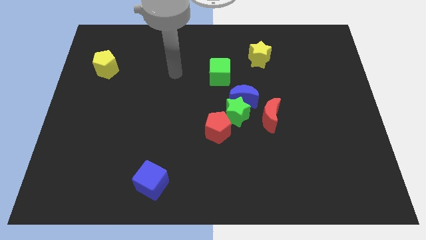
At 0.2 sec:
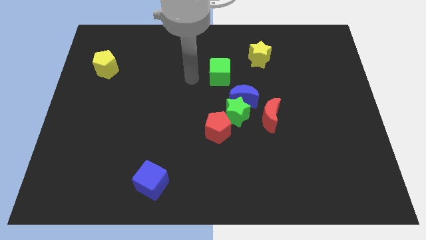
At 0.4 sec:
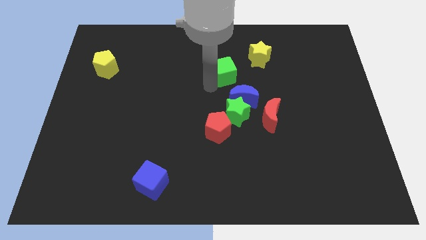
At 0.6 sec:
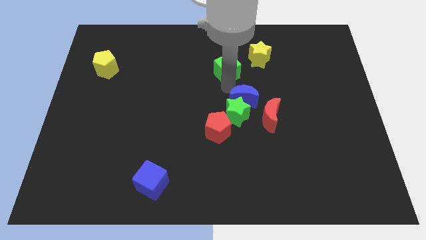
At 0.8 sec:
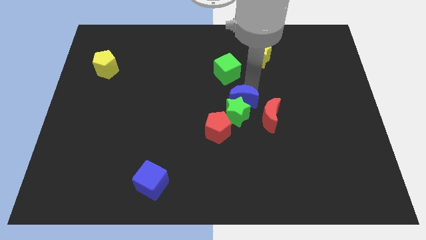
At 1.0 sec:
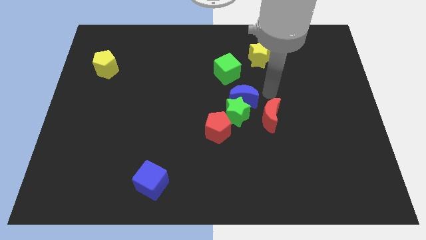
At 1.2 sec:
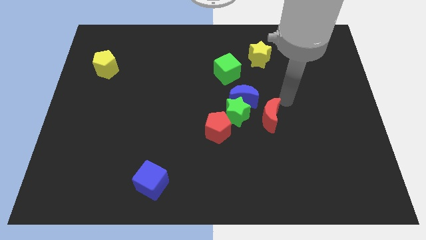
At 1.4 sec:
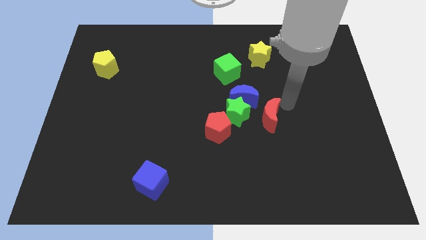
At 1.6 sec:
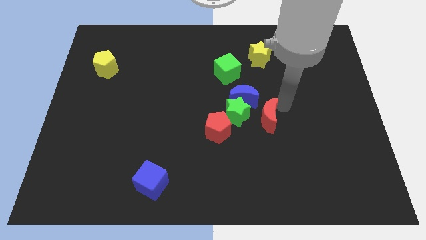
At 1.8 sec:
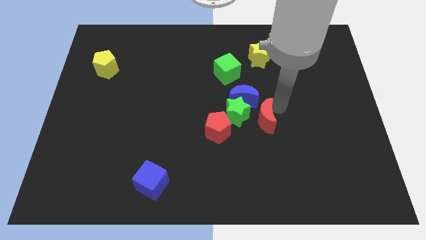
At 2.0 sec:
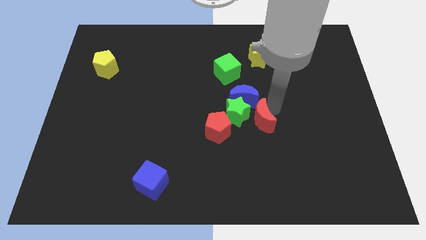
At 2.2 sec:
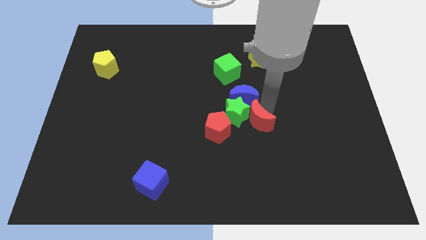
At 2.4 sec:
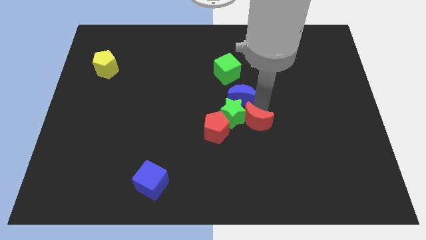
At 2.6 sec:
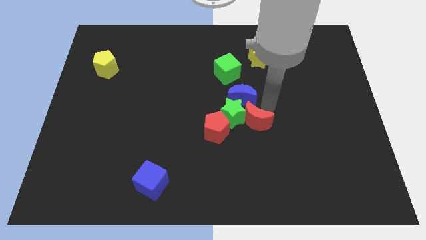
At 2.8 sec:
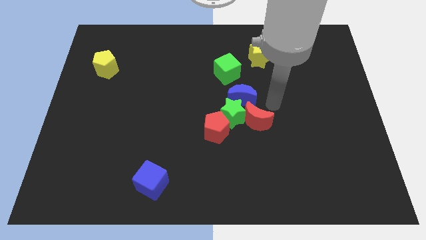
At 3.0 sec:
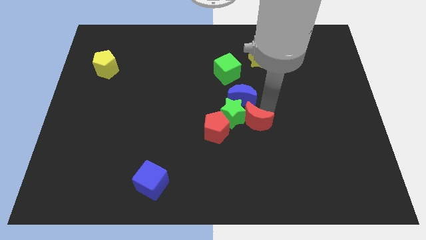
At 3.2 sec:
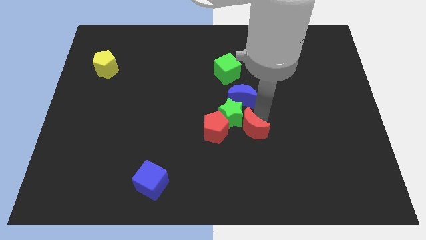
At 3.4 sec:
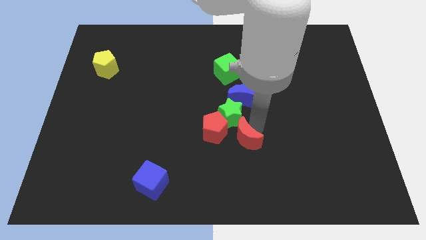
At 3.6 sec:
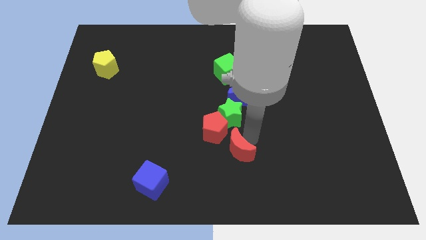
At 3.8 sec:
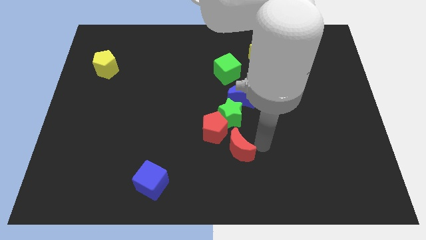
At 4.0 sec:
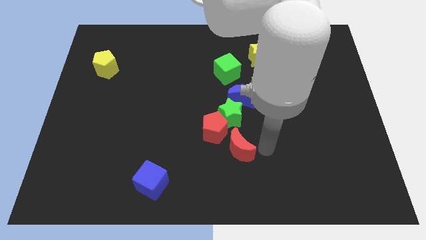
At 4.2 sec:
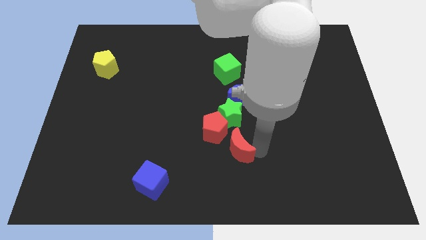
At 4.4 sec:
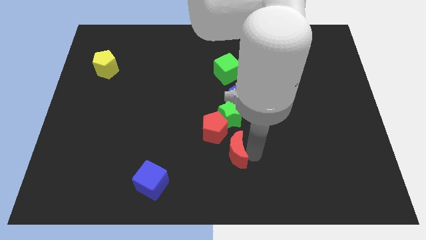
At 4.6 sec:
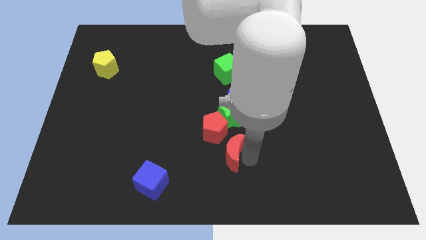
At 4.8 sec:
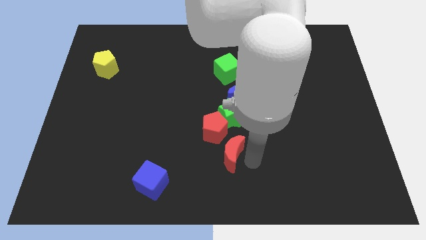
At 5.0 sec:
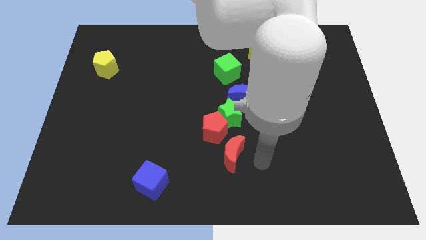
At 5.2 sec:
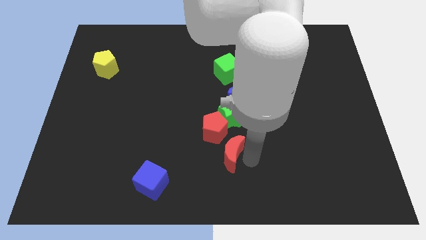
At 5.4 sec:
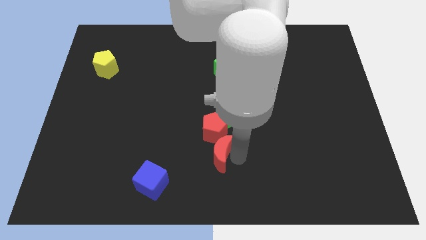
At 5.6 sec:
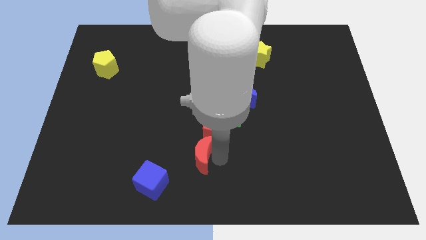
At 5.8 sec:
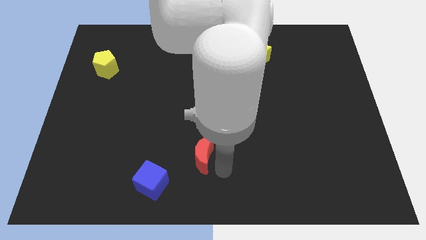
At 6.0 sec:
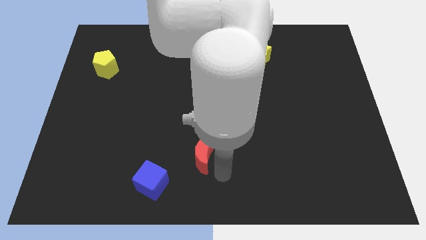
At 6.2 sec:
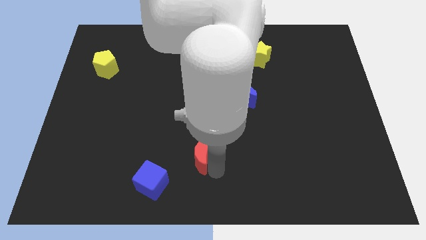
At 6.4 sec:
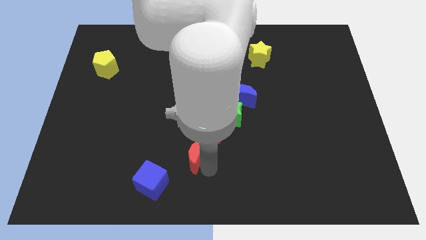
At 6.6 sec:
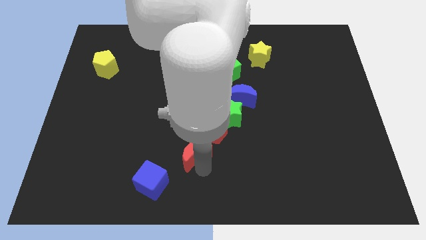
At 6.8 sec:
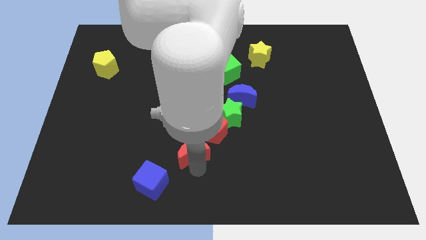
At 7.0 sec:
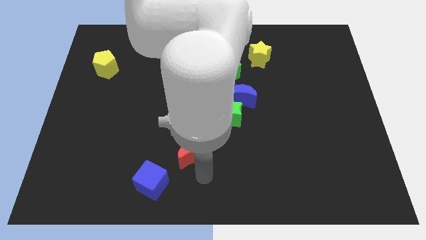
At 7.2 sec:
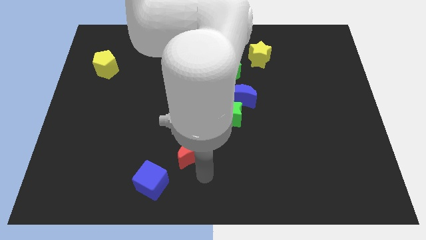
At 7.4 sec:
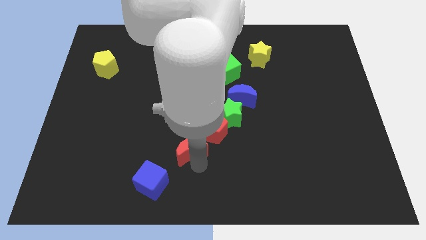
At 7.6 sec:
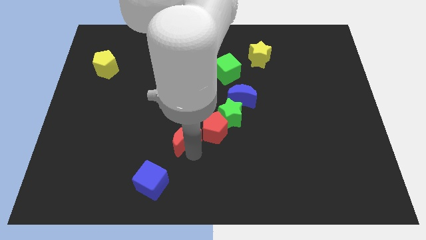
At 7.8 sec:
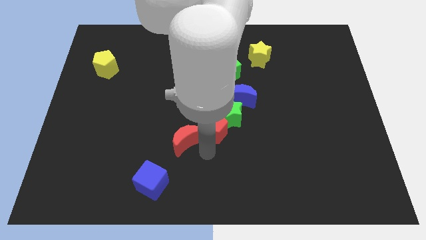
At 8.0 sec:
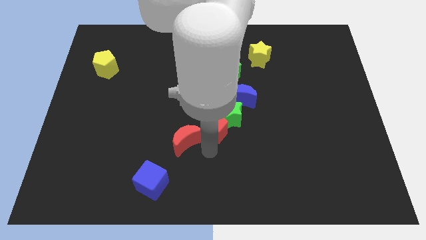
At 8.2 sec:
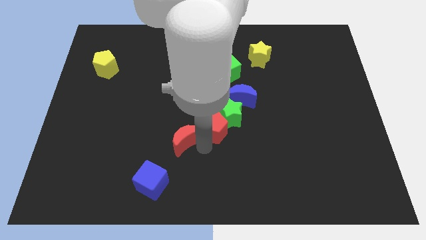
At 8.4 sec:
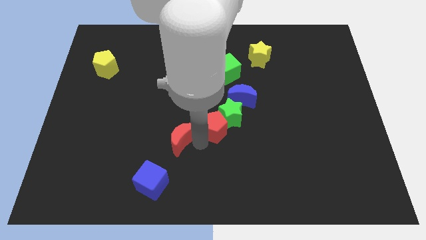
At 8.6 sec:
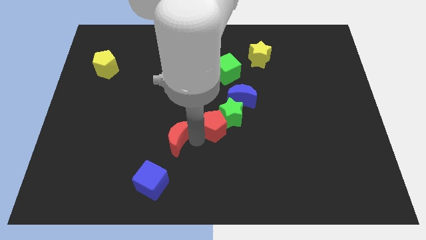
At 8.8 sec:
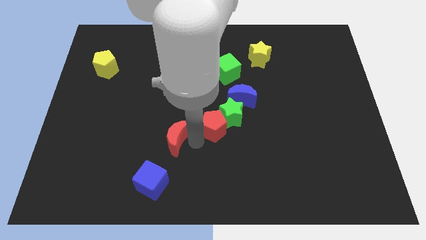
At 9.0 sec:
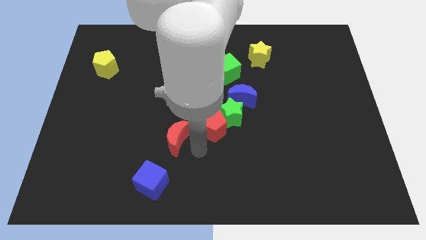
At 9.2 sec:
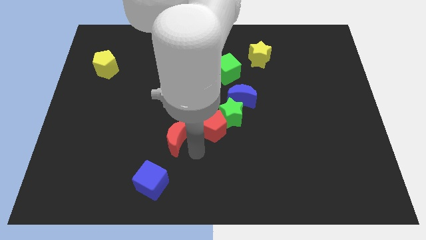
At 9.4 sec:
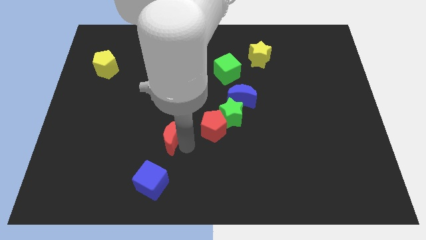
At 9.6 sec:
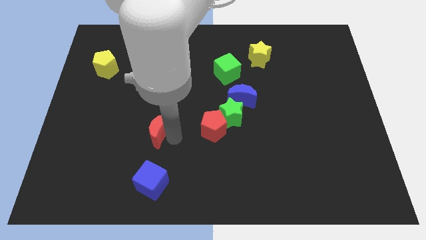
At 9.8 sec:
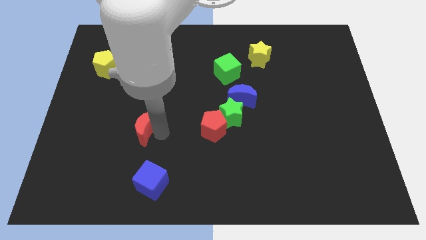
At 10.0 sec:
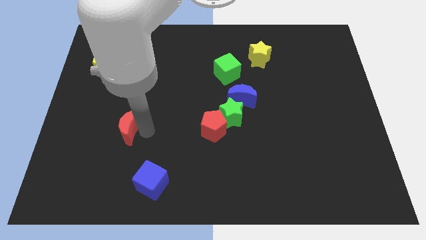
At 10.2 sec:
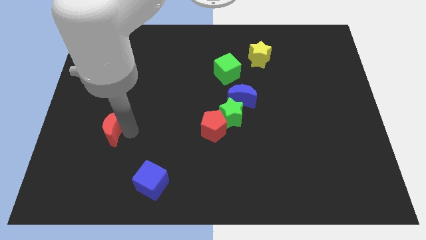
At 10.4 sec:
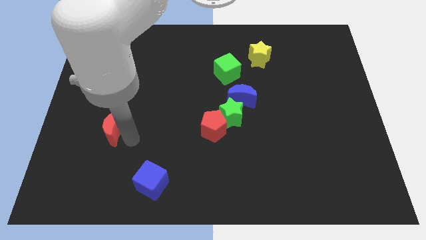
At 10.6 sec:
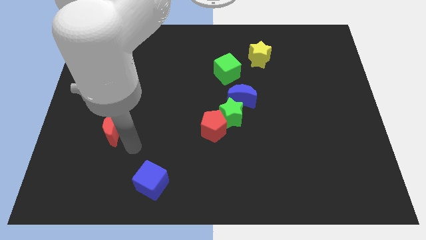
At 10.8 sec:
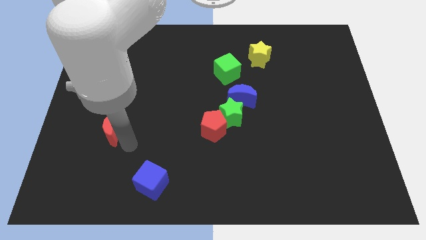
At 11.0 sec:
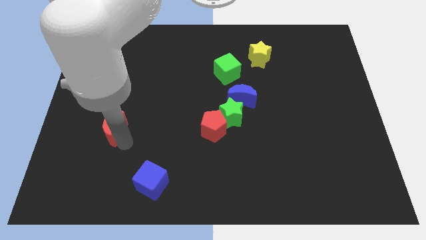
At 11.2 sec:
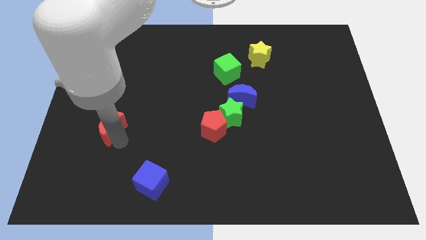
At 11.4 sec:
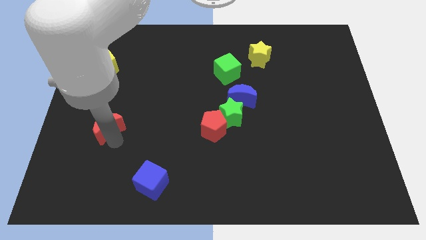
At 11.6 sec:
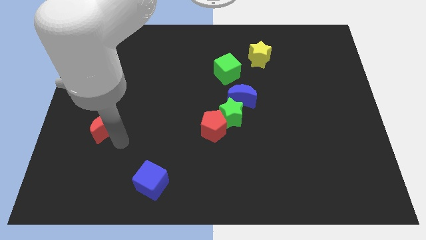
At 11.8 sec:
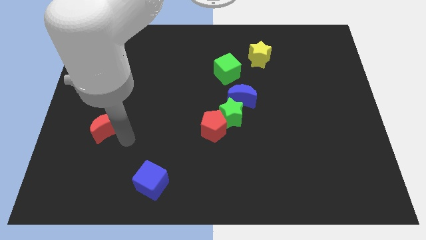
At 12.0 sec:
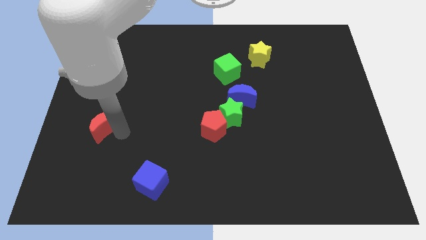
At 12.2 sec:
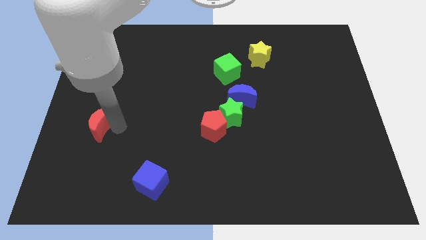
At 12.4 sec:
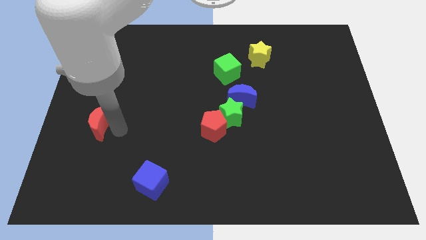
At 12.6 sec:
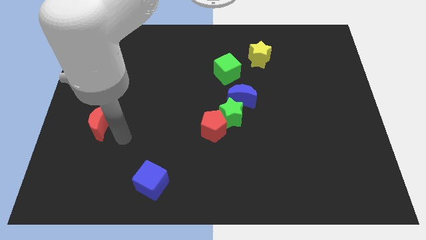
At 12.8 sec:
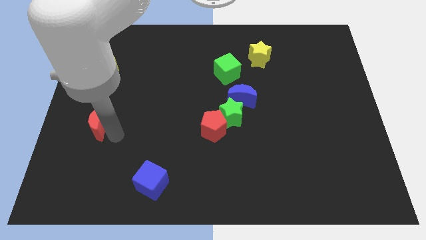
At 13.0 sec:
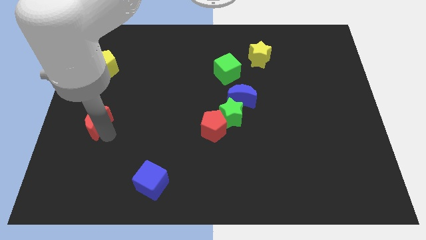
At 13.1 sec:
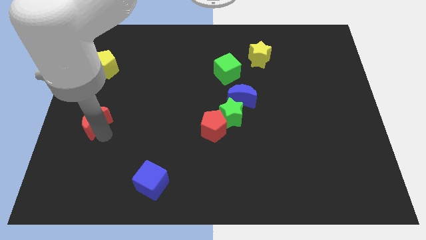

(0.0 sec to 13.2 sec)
push the red moon to the left side
